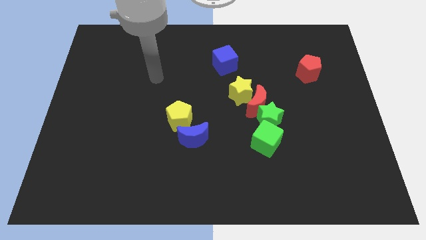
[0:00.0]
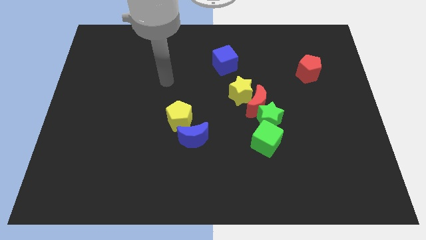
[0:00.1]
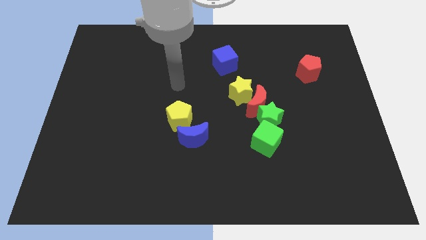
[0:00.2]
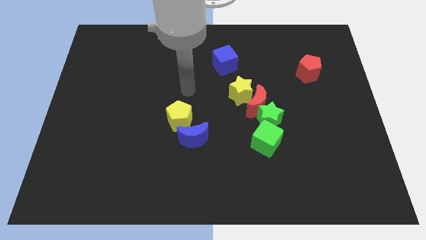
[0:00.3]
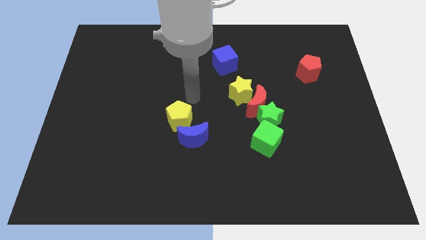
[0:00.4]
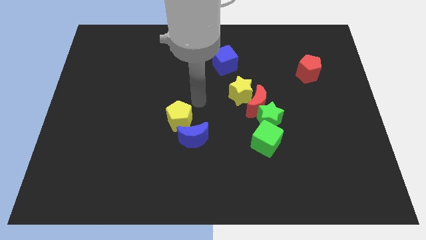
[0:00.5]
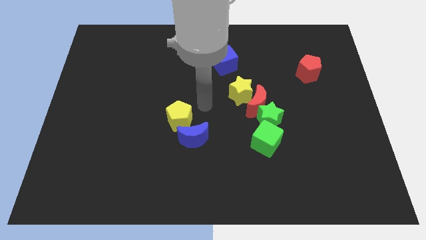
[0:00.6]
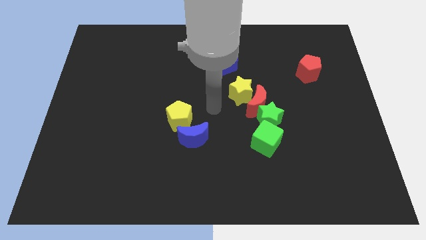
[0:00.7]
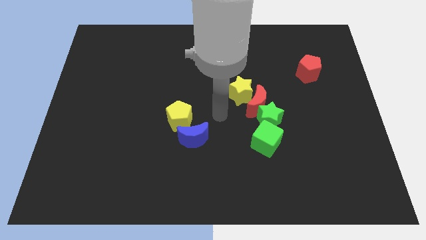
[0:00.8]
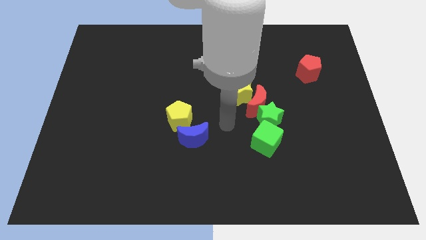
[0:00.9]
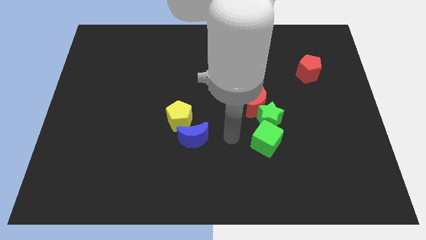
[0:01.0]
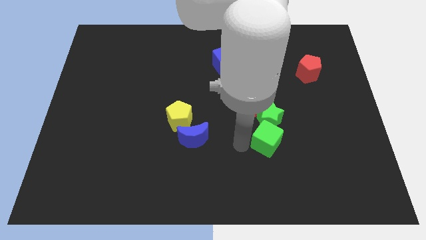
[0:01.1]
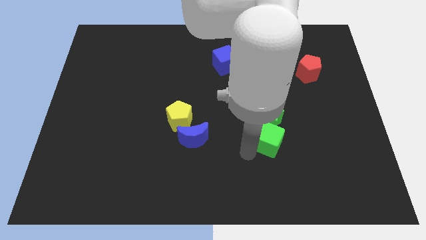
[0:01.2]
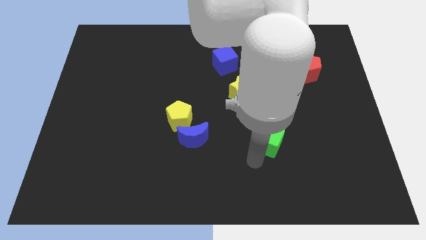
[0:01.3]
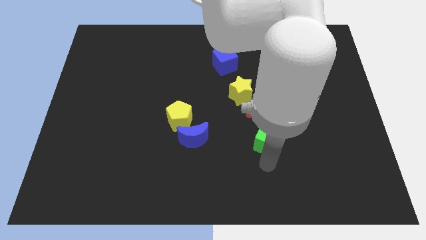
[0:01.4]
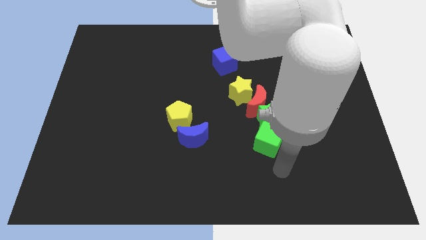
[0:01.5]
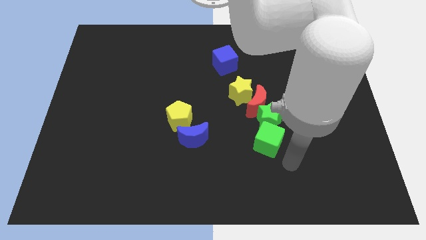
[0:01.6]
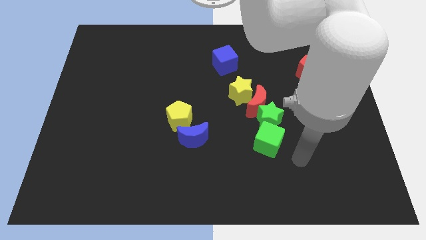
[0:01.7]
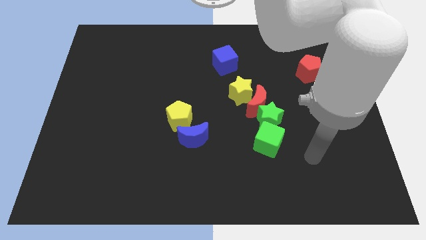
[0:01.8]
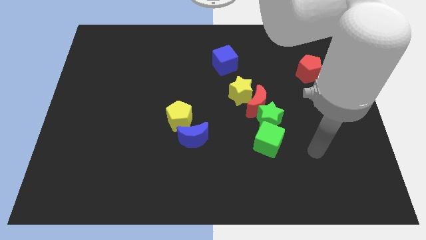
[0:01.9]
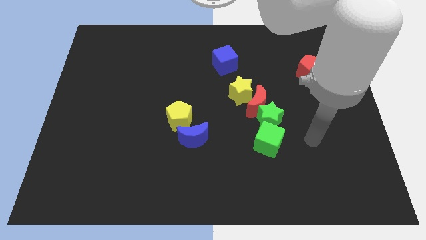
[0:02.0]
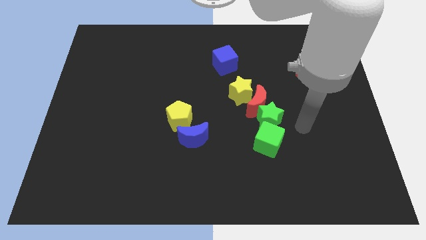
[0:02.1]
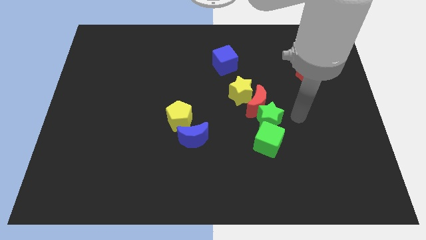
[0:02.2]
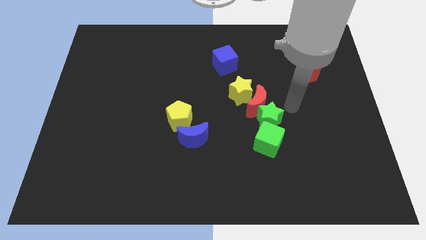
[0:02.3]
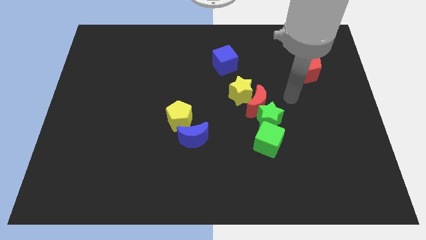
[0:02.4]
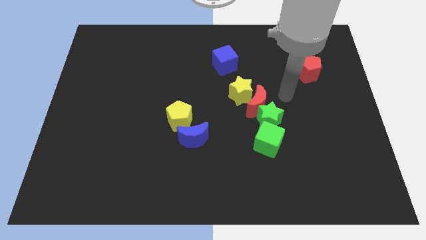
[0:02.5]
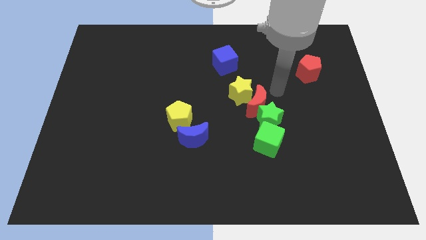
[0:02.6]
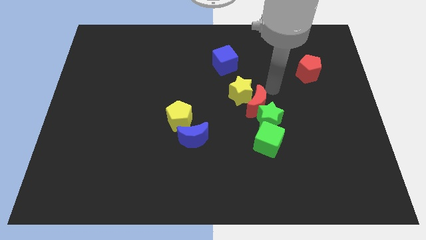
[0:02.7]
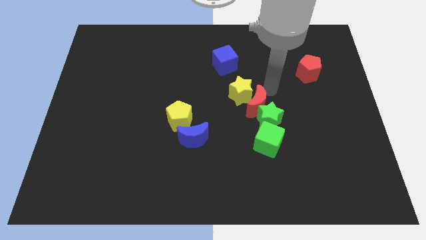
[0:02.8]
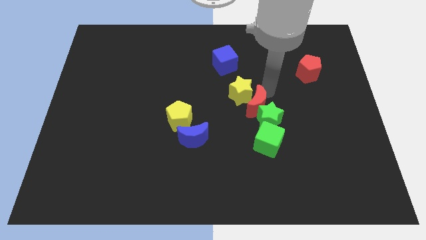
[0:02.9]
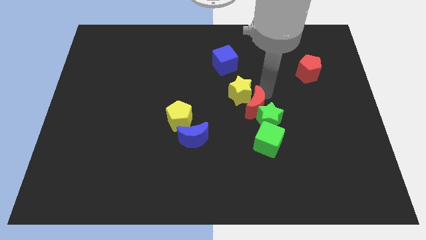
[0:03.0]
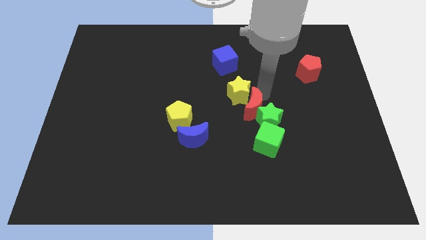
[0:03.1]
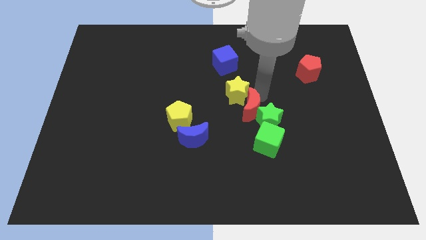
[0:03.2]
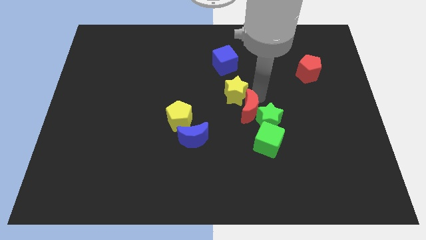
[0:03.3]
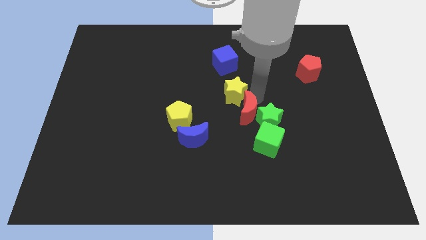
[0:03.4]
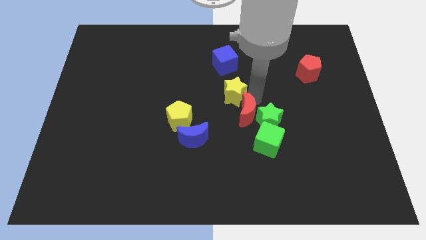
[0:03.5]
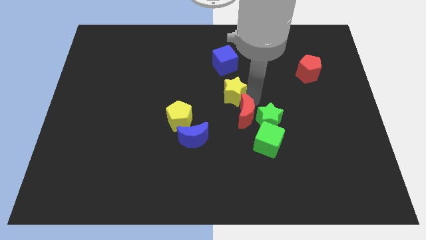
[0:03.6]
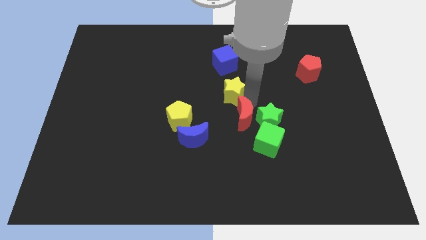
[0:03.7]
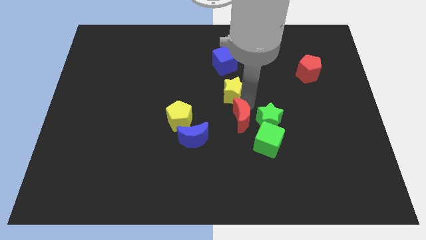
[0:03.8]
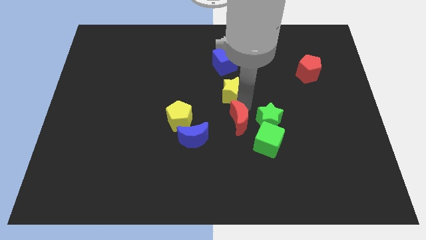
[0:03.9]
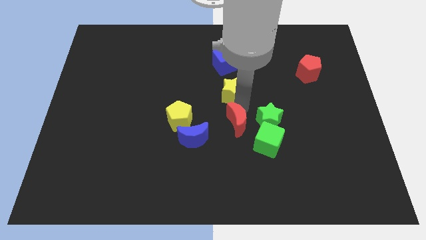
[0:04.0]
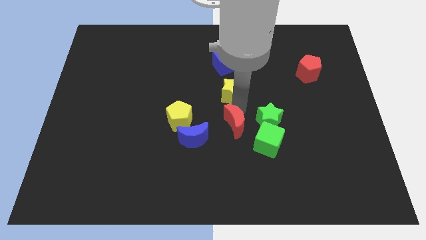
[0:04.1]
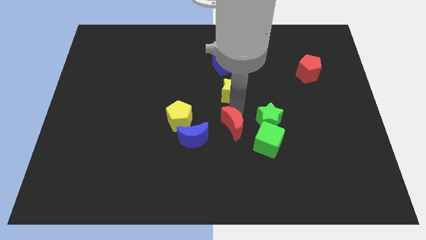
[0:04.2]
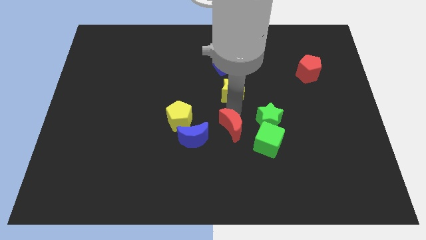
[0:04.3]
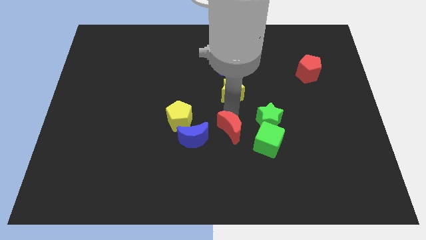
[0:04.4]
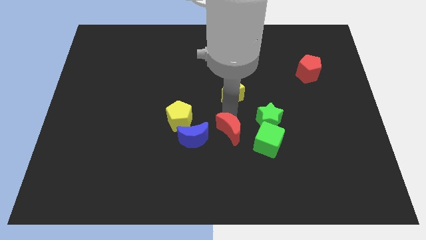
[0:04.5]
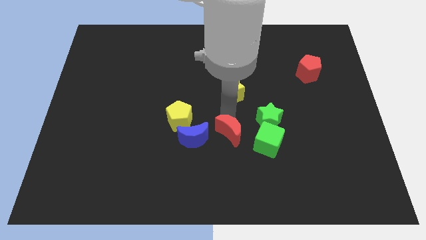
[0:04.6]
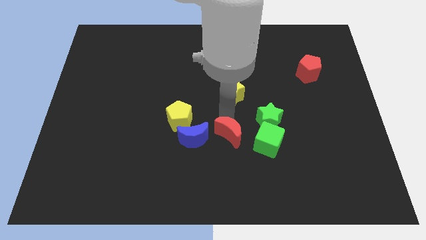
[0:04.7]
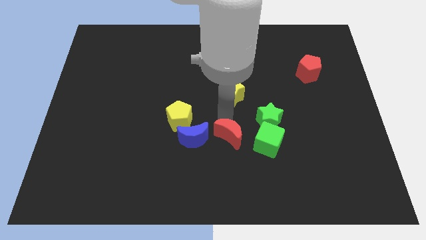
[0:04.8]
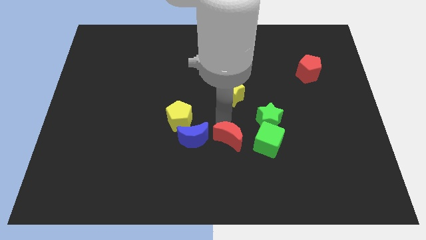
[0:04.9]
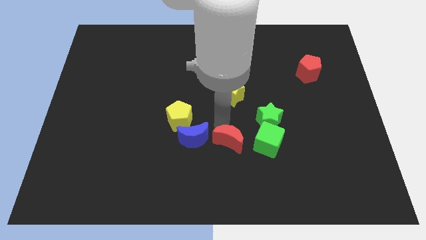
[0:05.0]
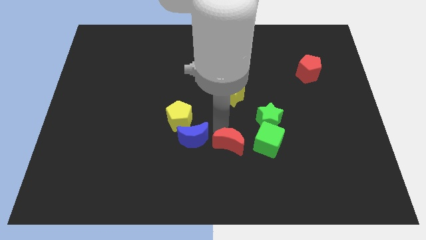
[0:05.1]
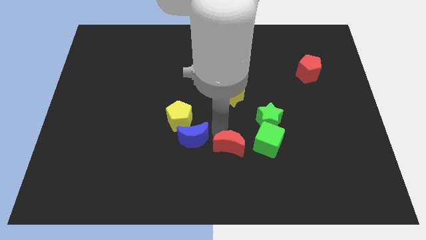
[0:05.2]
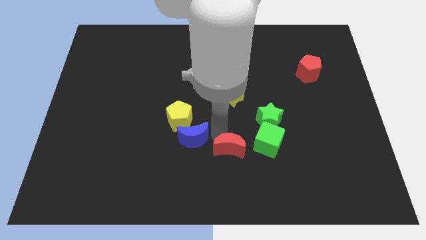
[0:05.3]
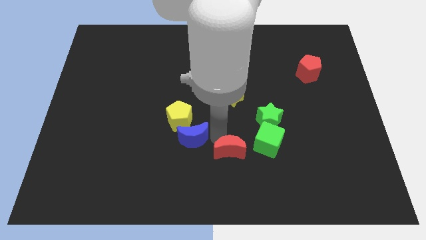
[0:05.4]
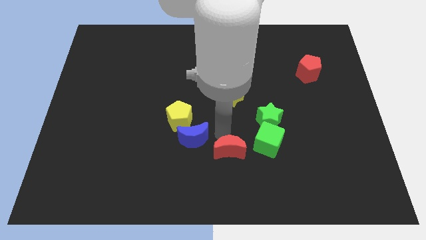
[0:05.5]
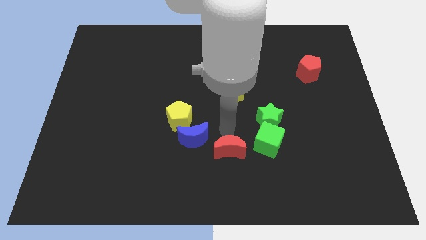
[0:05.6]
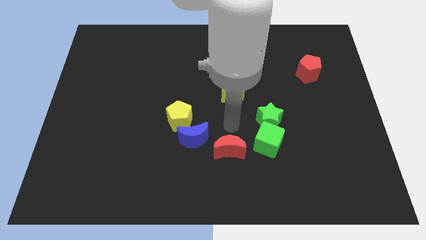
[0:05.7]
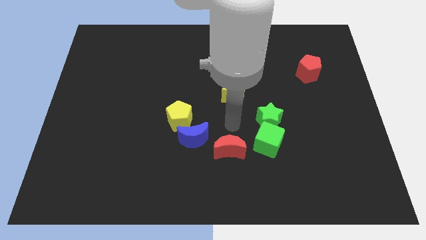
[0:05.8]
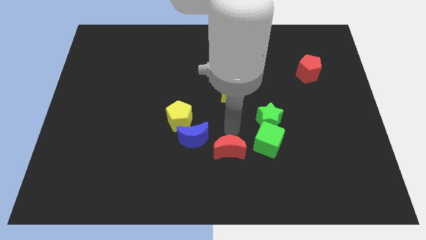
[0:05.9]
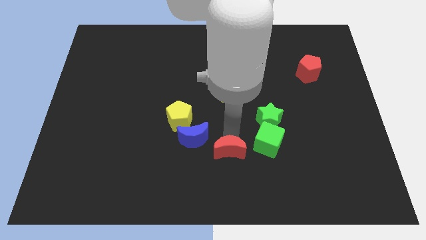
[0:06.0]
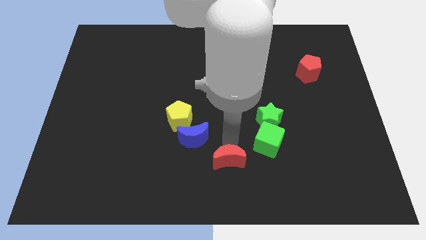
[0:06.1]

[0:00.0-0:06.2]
push the red moon to the bottom
